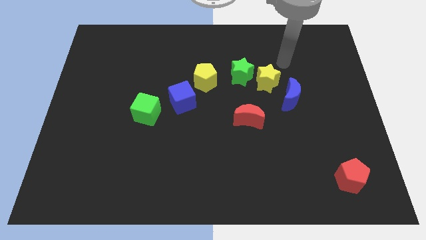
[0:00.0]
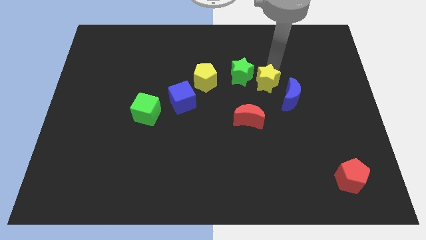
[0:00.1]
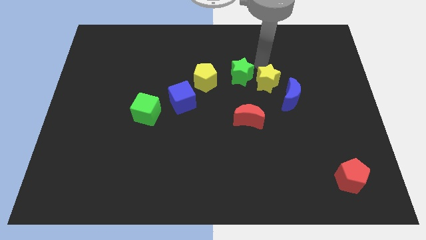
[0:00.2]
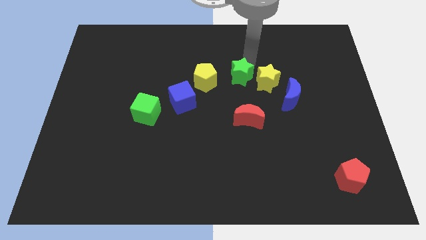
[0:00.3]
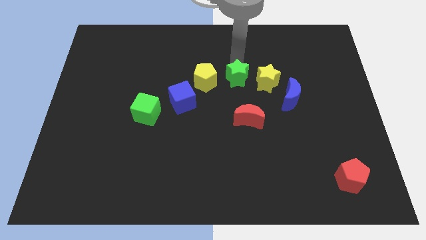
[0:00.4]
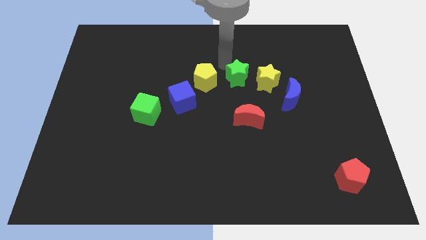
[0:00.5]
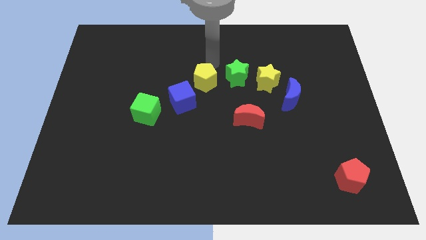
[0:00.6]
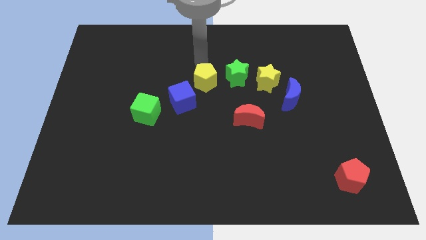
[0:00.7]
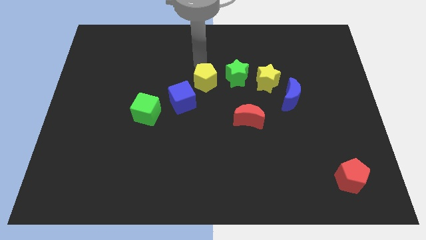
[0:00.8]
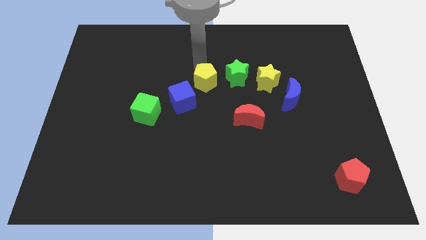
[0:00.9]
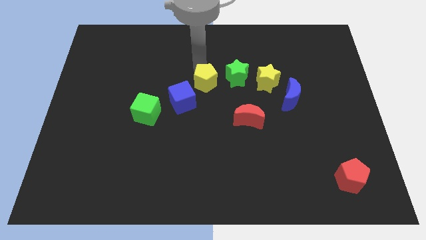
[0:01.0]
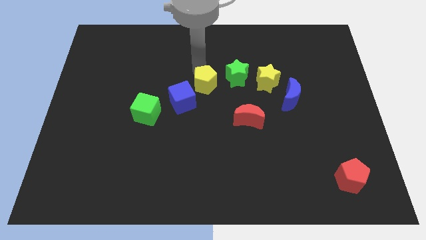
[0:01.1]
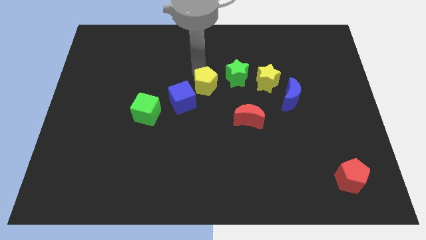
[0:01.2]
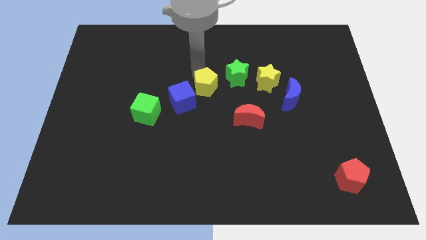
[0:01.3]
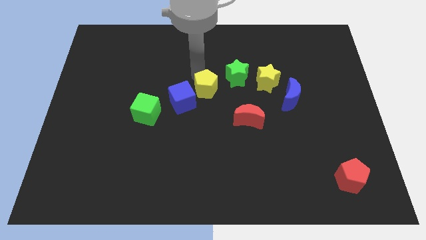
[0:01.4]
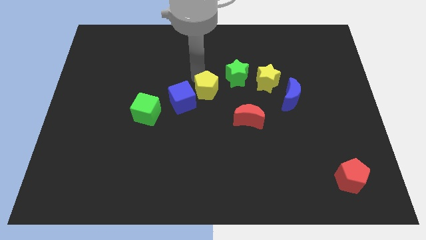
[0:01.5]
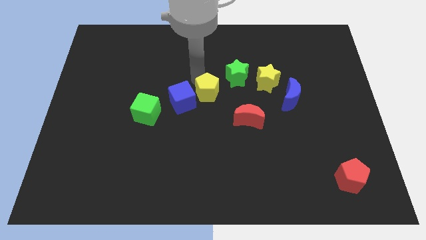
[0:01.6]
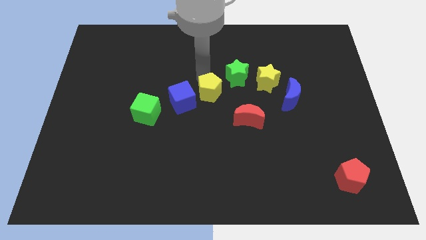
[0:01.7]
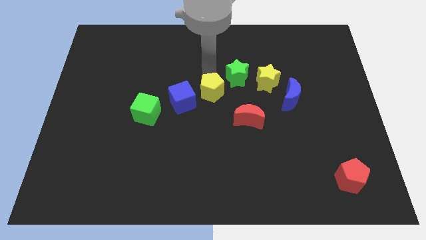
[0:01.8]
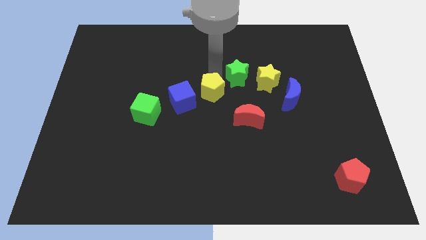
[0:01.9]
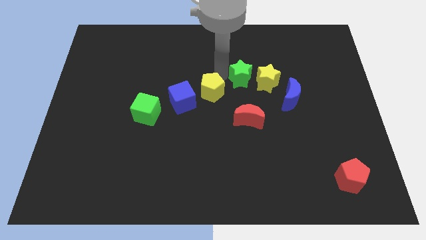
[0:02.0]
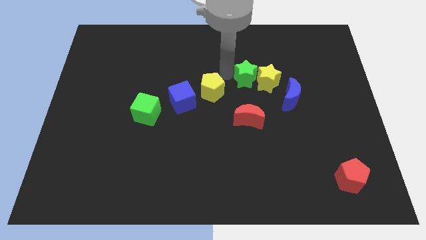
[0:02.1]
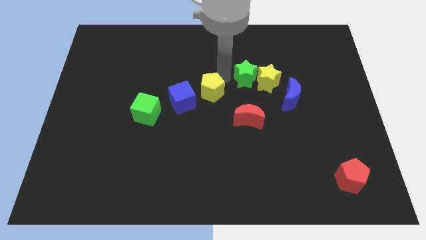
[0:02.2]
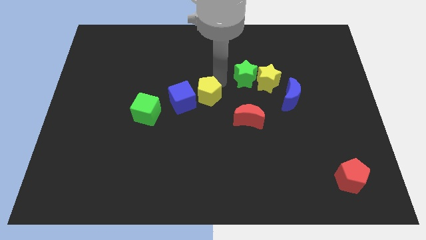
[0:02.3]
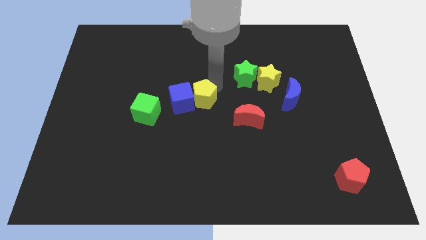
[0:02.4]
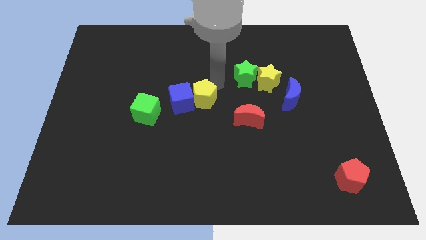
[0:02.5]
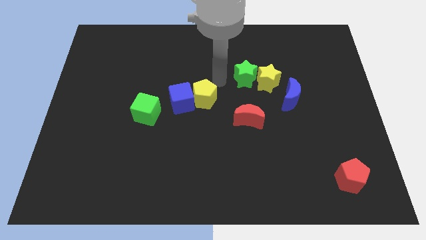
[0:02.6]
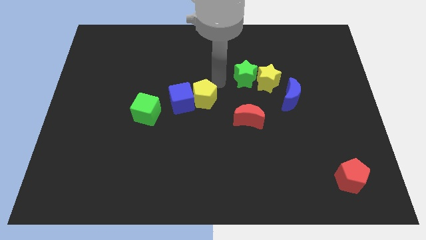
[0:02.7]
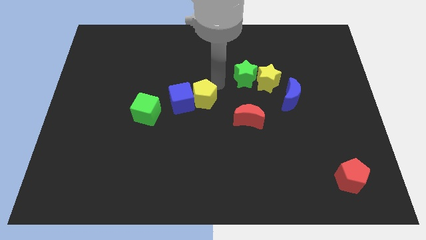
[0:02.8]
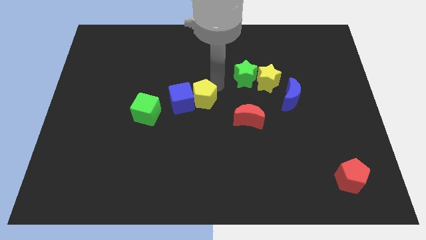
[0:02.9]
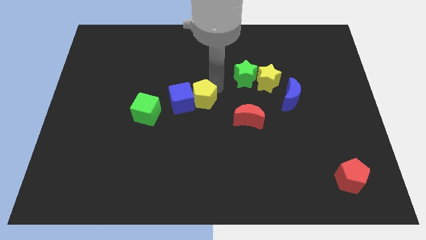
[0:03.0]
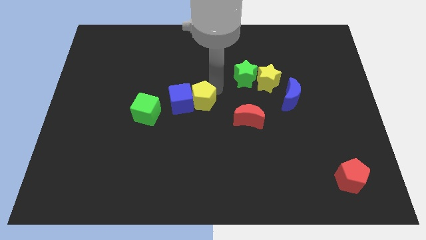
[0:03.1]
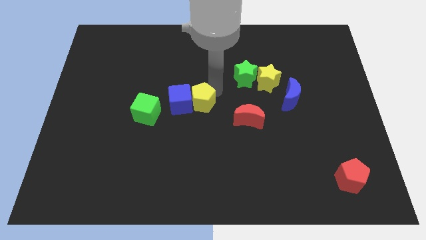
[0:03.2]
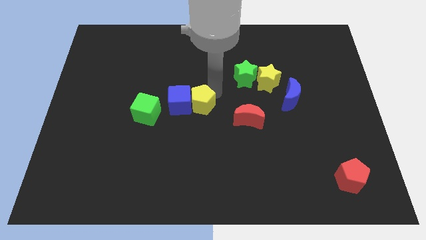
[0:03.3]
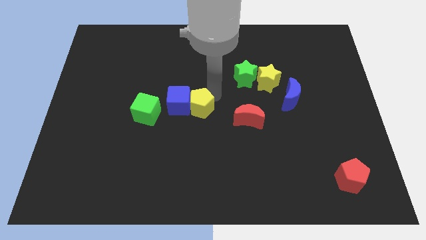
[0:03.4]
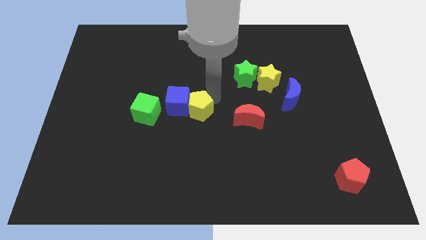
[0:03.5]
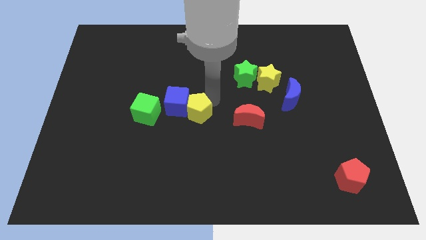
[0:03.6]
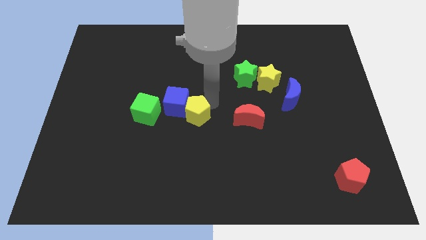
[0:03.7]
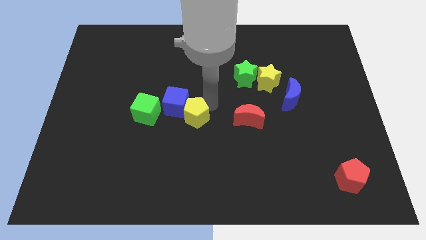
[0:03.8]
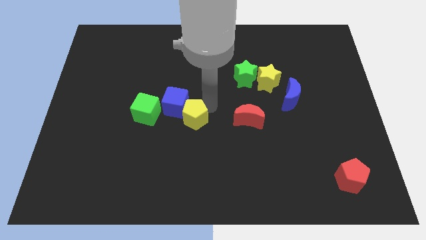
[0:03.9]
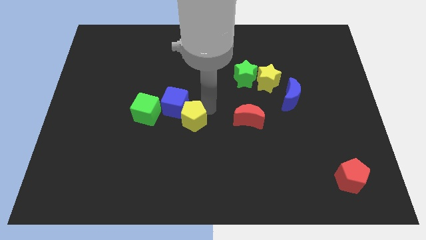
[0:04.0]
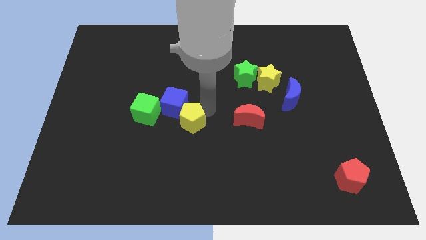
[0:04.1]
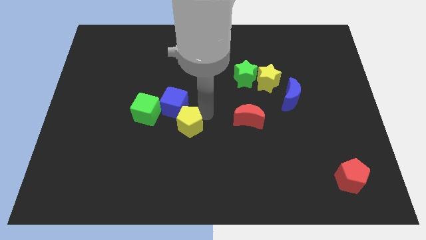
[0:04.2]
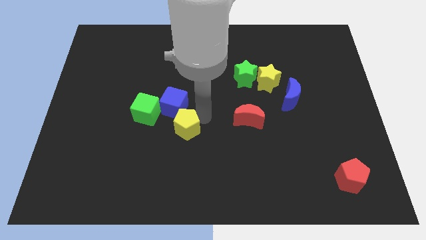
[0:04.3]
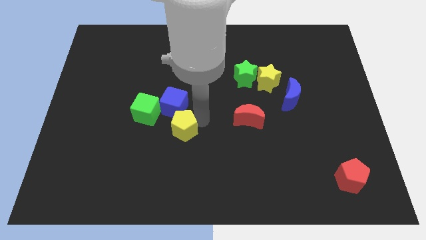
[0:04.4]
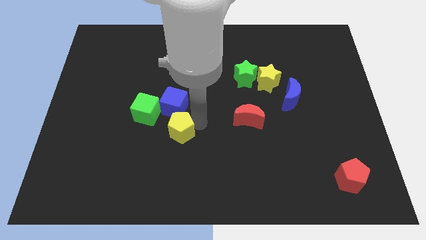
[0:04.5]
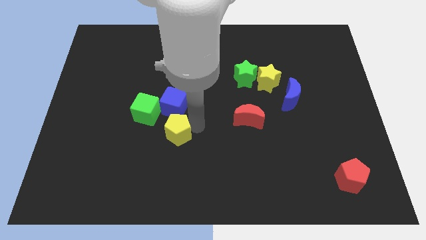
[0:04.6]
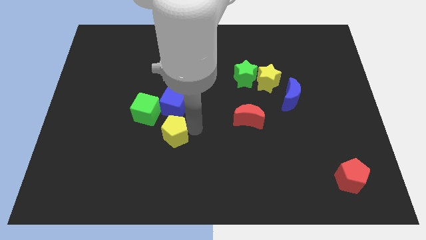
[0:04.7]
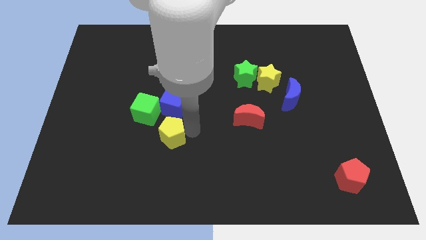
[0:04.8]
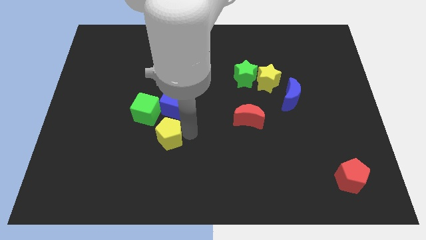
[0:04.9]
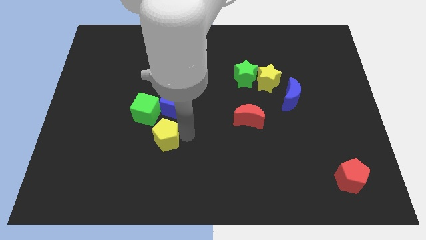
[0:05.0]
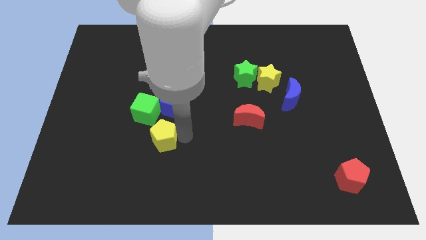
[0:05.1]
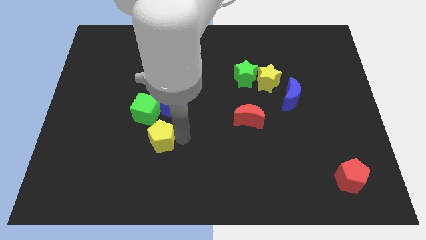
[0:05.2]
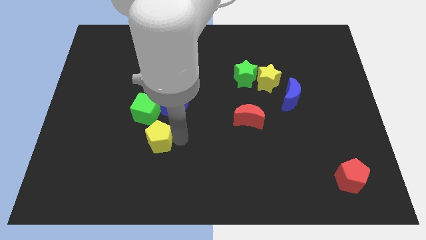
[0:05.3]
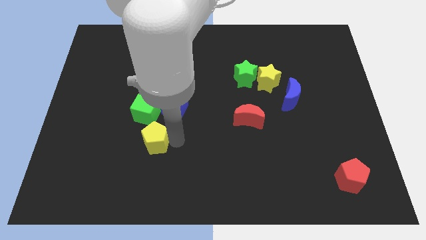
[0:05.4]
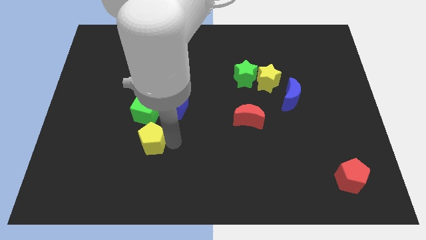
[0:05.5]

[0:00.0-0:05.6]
slide the yellow pentagon down and then to the left

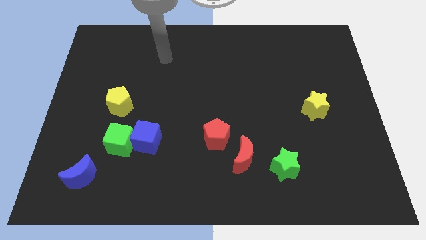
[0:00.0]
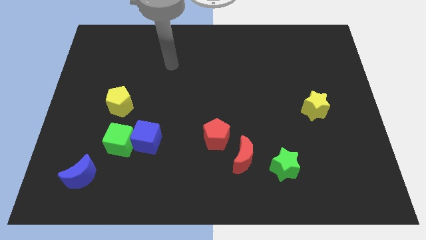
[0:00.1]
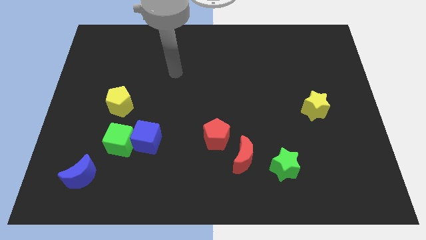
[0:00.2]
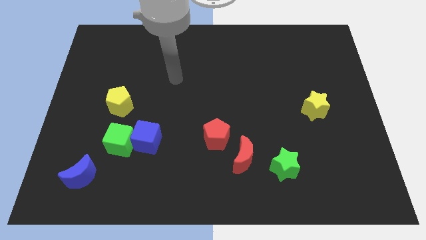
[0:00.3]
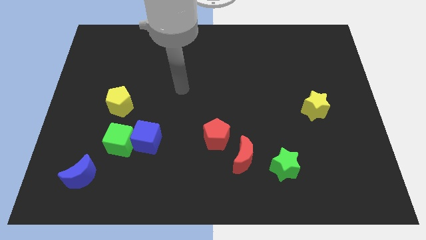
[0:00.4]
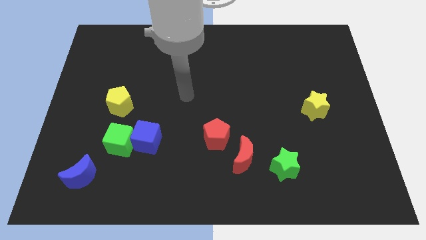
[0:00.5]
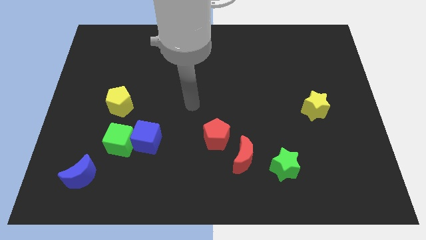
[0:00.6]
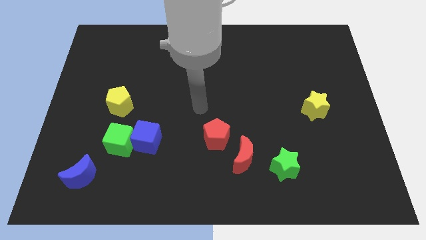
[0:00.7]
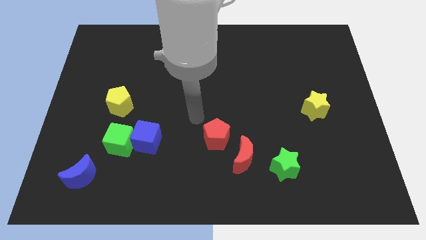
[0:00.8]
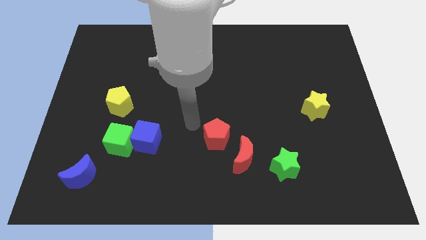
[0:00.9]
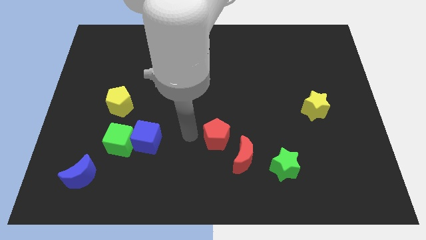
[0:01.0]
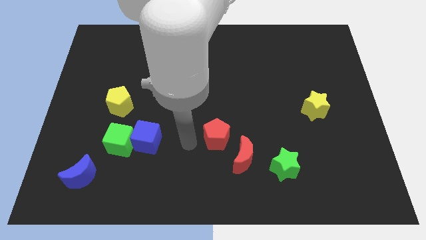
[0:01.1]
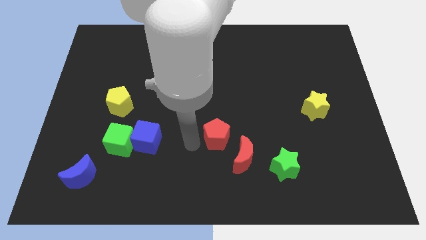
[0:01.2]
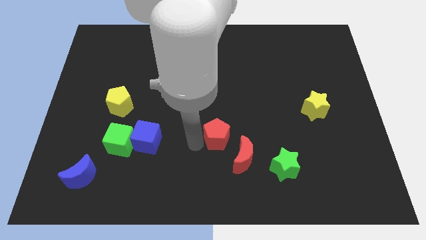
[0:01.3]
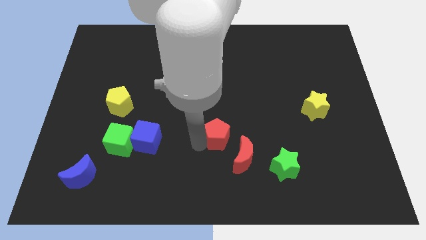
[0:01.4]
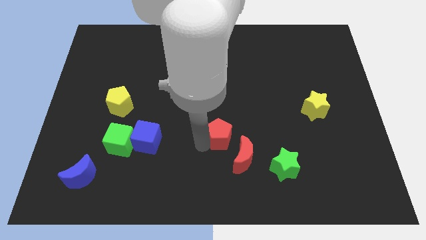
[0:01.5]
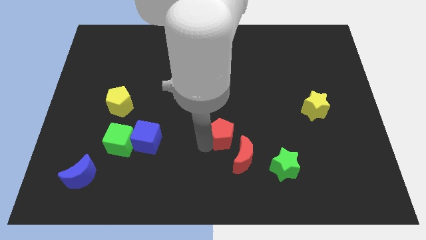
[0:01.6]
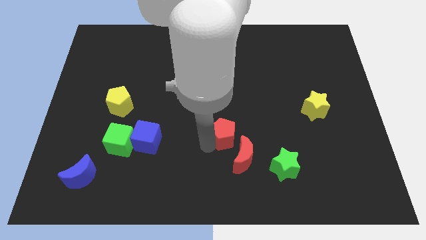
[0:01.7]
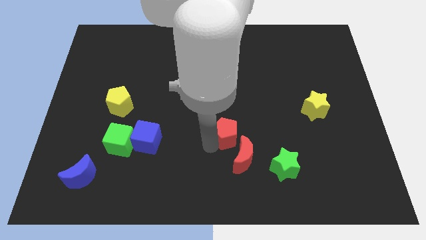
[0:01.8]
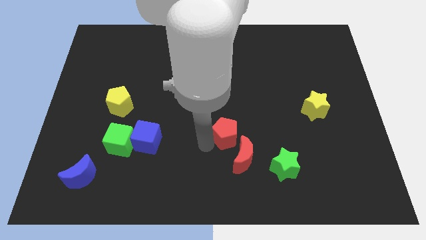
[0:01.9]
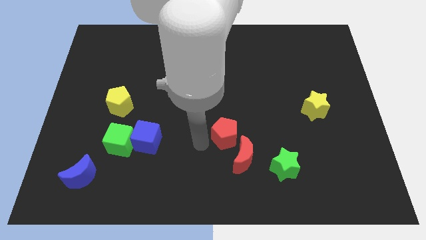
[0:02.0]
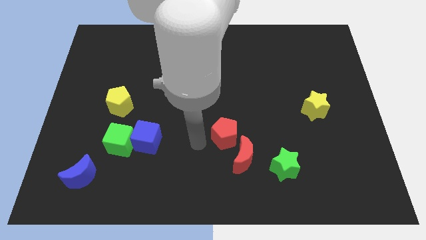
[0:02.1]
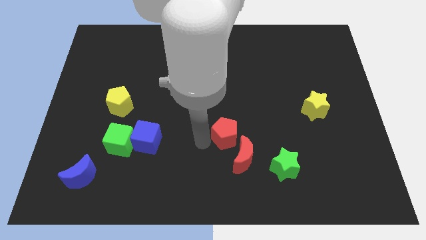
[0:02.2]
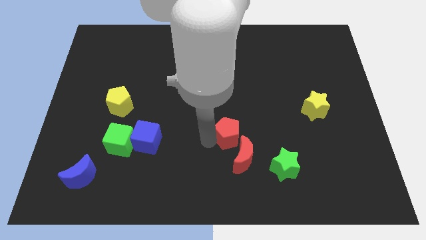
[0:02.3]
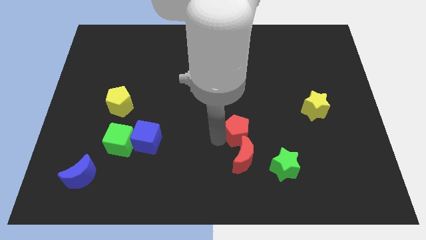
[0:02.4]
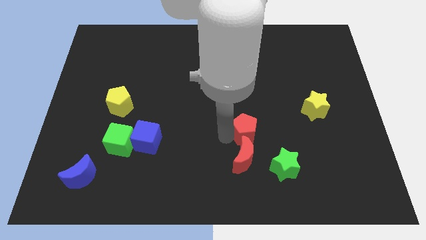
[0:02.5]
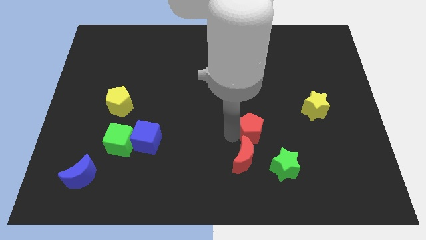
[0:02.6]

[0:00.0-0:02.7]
push the red pentagon slightly to the right
